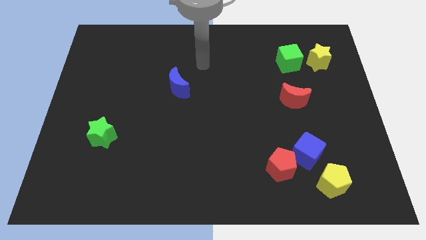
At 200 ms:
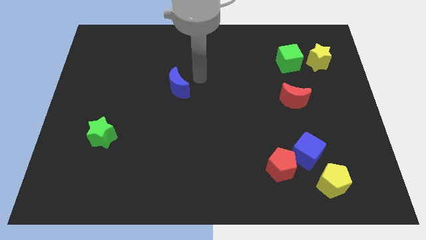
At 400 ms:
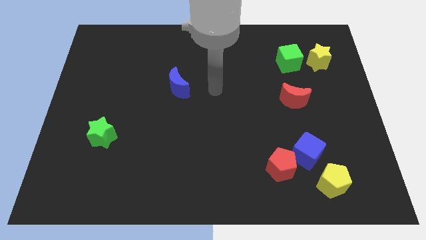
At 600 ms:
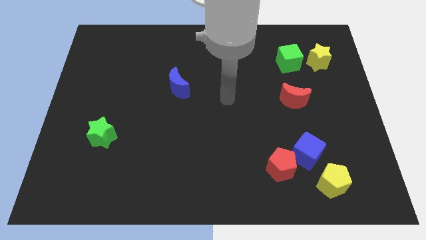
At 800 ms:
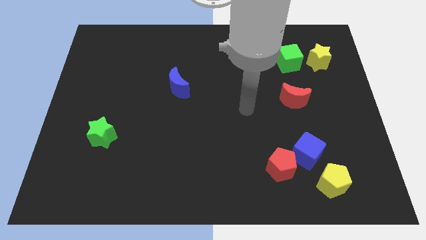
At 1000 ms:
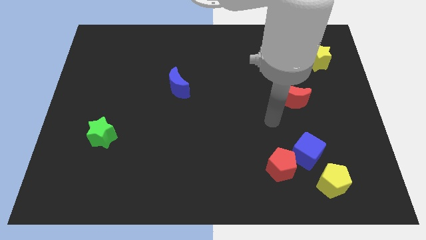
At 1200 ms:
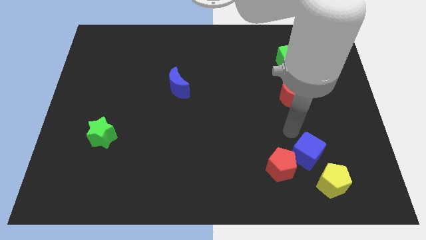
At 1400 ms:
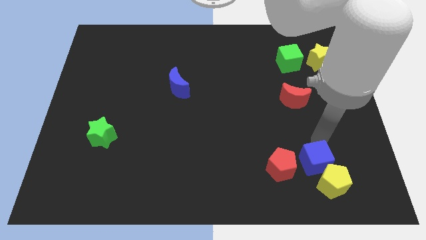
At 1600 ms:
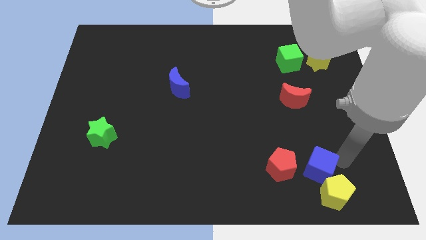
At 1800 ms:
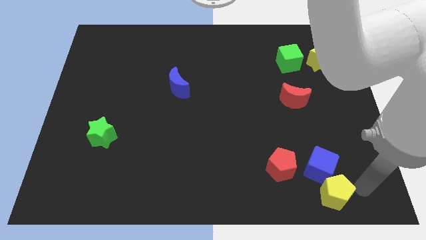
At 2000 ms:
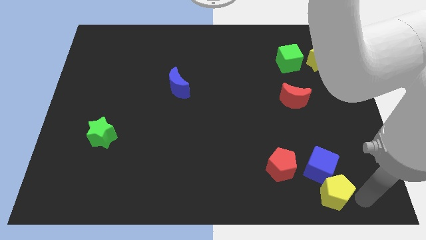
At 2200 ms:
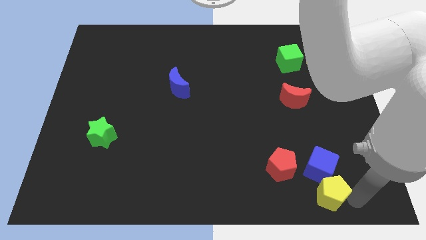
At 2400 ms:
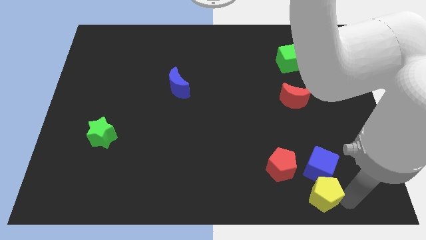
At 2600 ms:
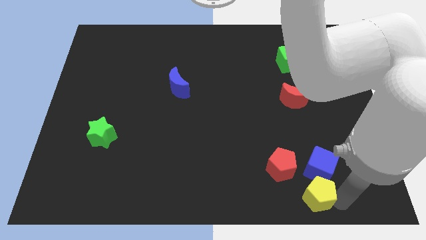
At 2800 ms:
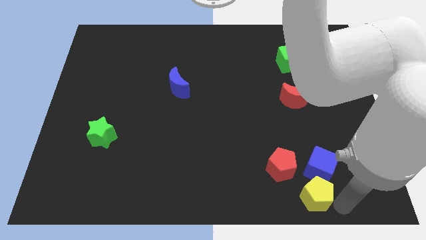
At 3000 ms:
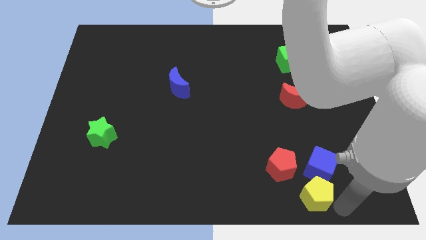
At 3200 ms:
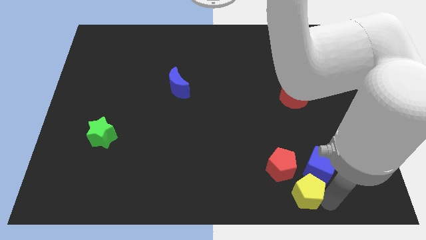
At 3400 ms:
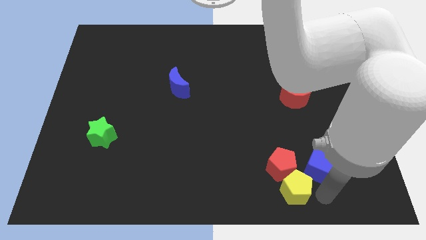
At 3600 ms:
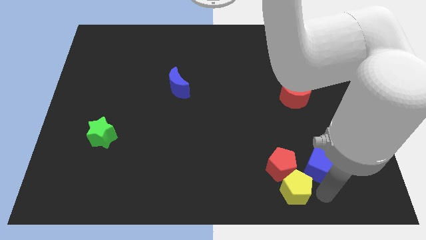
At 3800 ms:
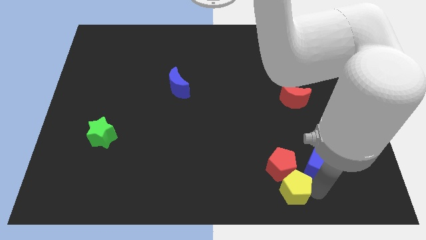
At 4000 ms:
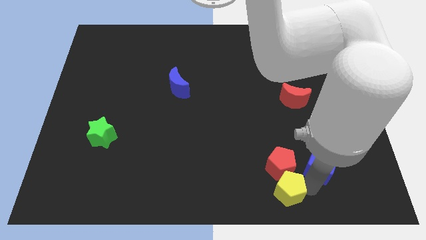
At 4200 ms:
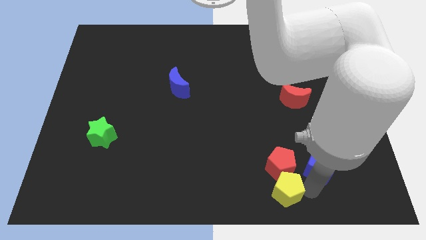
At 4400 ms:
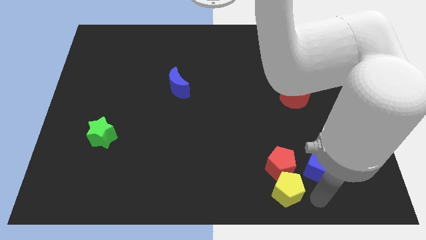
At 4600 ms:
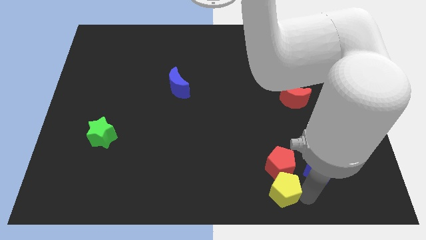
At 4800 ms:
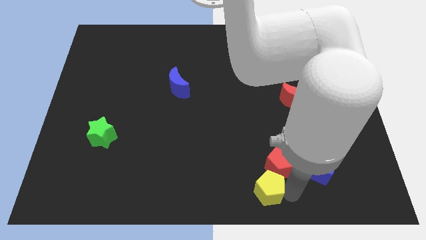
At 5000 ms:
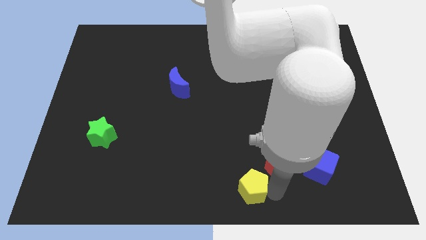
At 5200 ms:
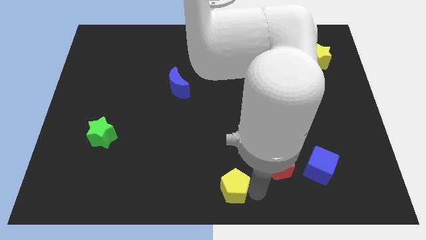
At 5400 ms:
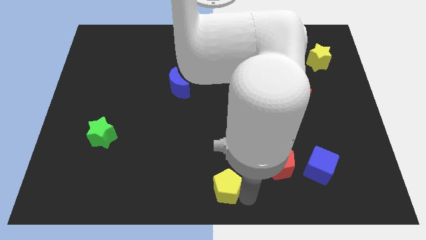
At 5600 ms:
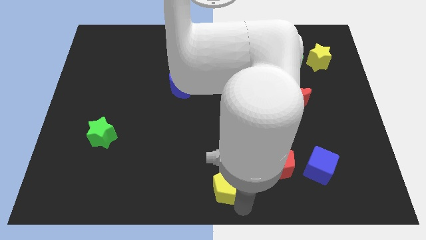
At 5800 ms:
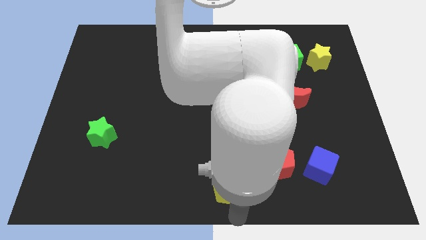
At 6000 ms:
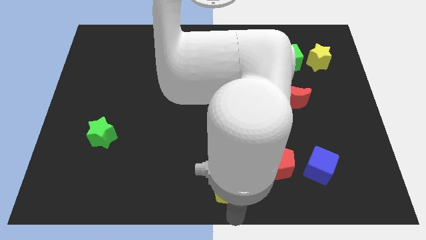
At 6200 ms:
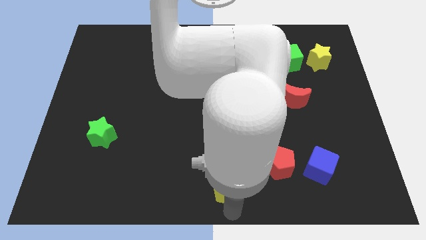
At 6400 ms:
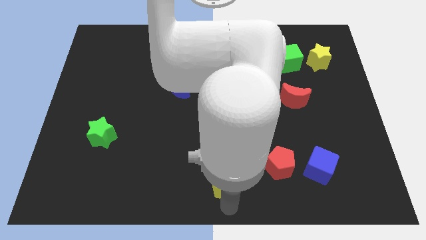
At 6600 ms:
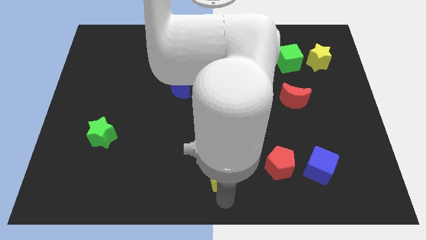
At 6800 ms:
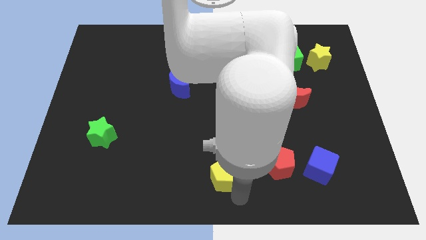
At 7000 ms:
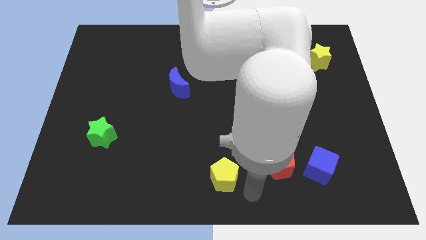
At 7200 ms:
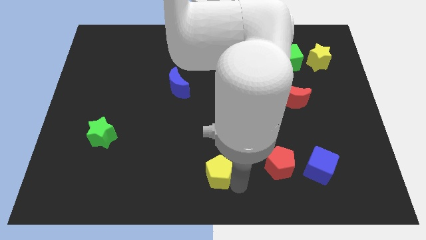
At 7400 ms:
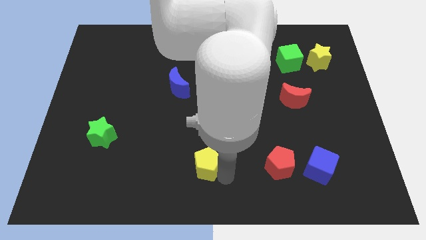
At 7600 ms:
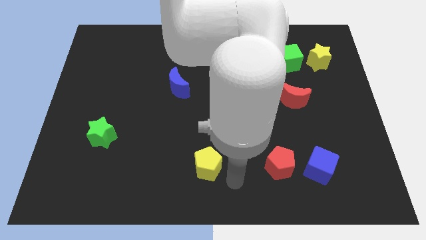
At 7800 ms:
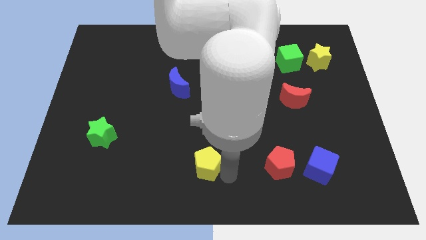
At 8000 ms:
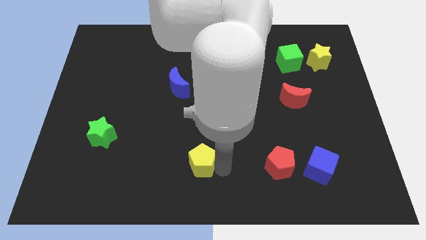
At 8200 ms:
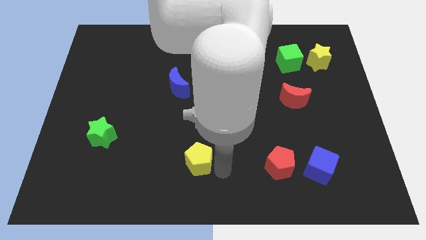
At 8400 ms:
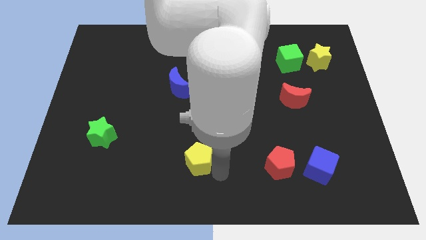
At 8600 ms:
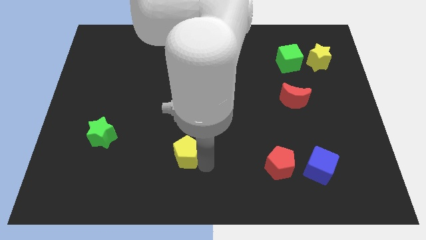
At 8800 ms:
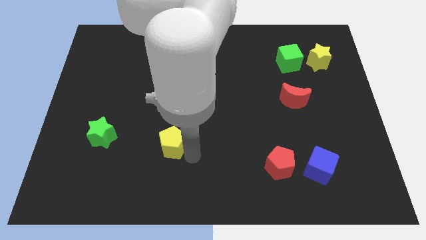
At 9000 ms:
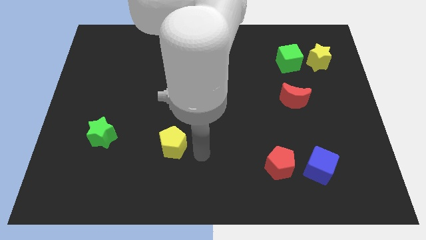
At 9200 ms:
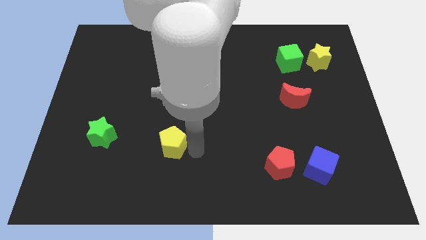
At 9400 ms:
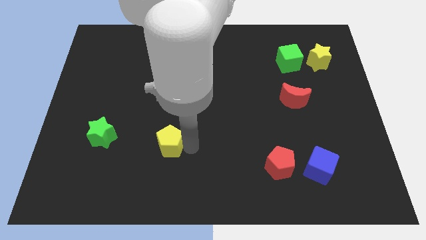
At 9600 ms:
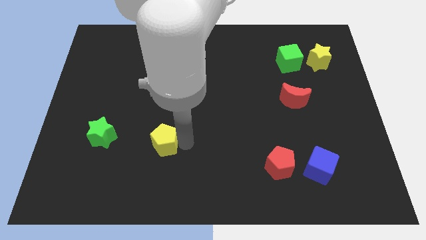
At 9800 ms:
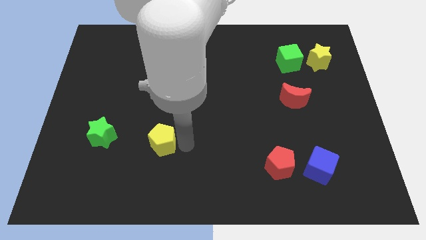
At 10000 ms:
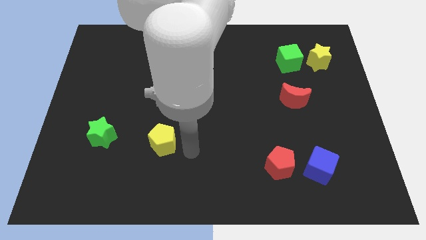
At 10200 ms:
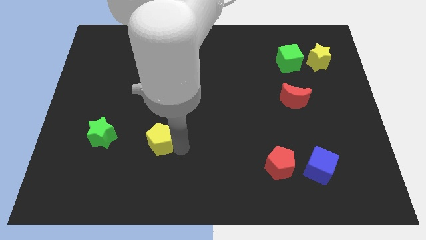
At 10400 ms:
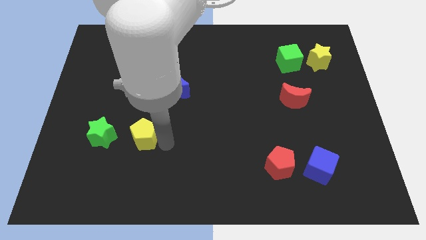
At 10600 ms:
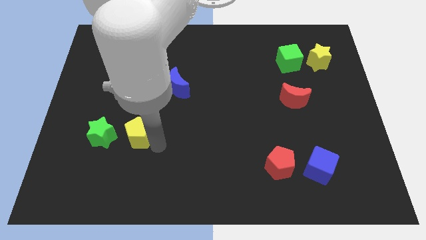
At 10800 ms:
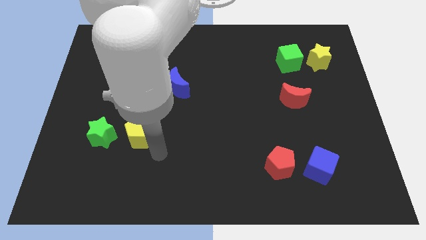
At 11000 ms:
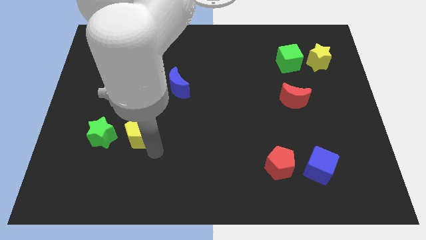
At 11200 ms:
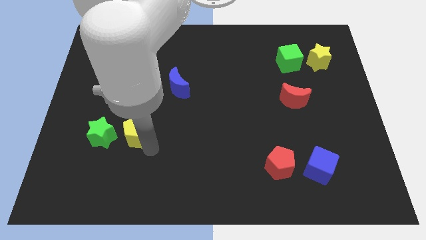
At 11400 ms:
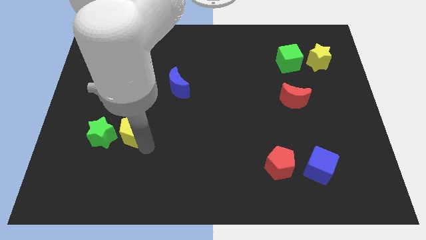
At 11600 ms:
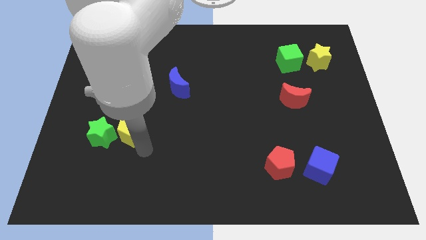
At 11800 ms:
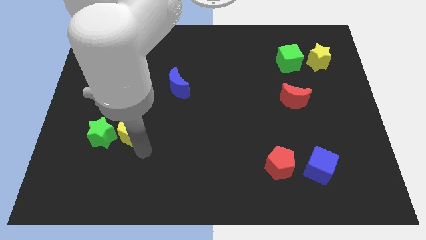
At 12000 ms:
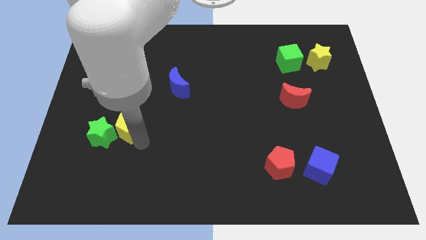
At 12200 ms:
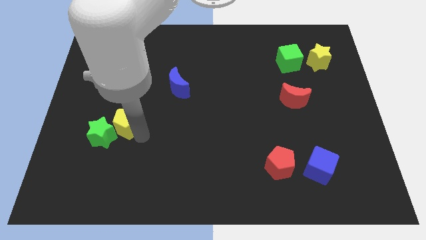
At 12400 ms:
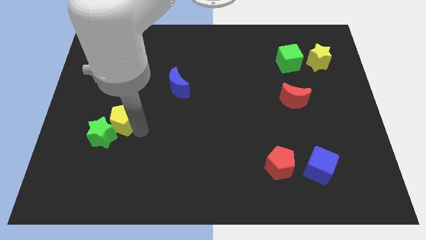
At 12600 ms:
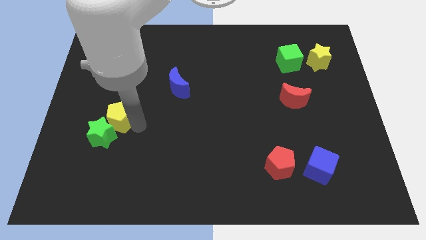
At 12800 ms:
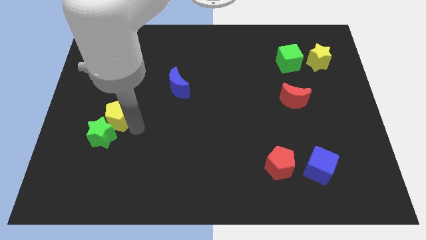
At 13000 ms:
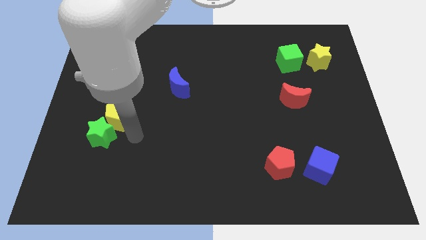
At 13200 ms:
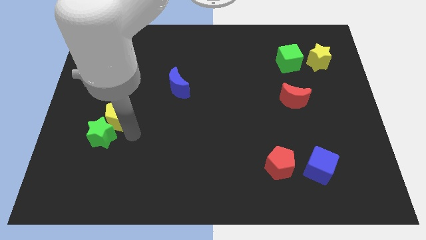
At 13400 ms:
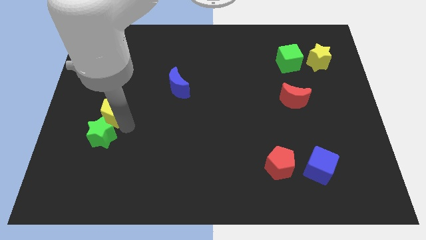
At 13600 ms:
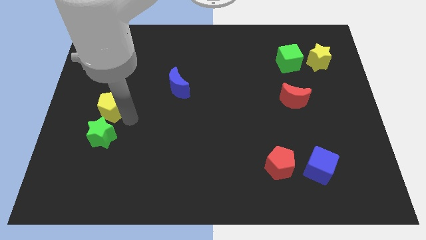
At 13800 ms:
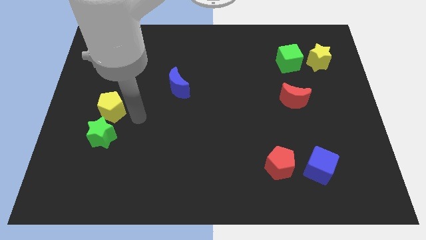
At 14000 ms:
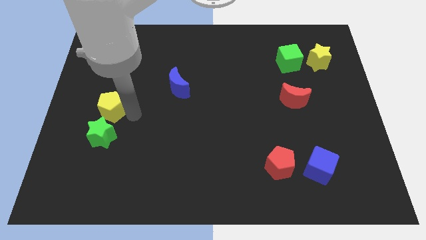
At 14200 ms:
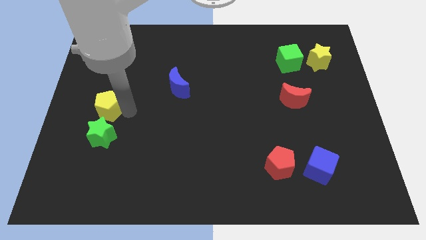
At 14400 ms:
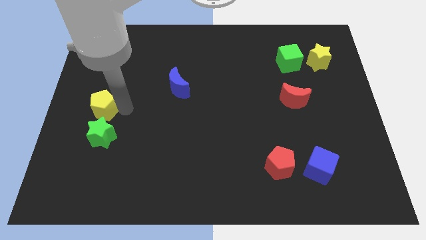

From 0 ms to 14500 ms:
slide the yellow pentagon to the center left
